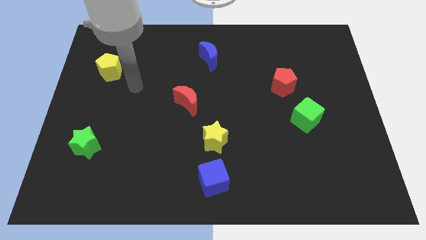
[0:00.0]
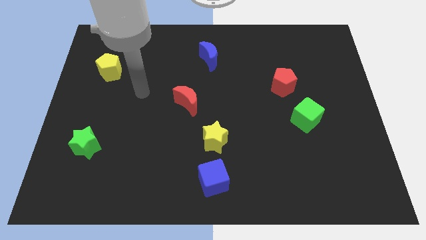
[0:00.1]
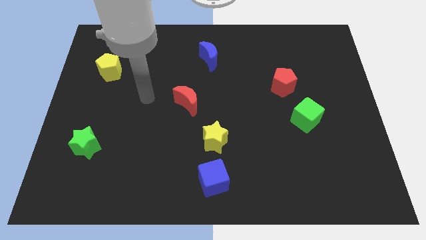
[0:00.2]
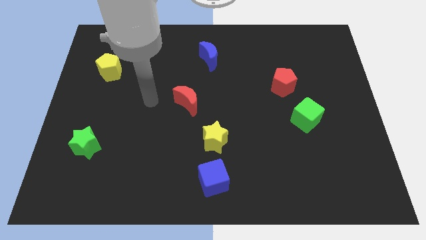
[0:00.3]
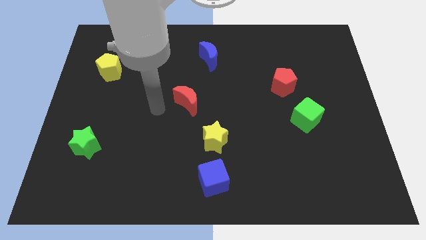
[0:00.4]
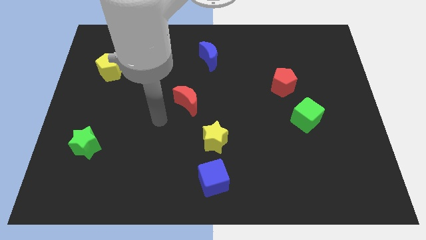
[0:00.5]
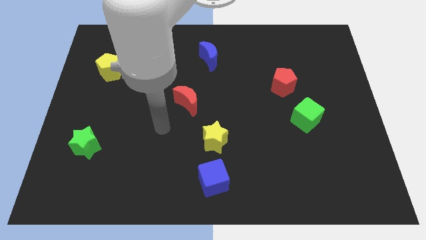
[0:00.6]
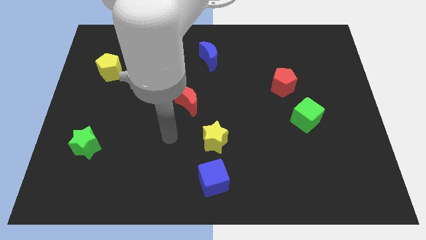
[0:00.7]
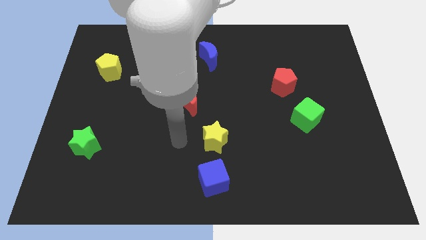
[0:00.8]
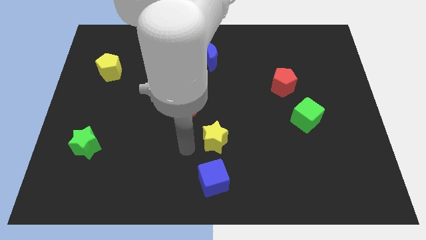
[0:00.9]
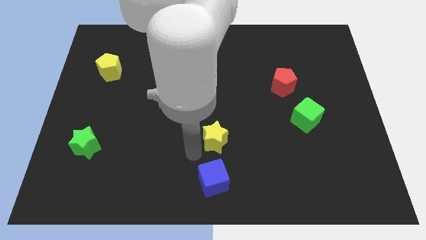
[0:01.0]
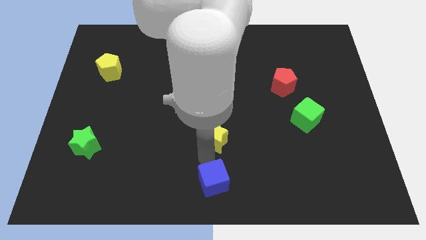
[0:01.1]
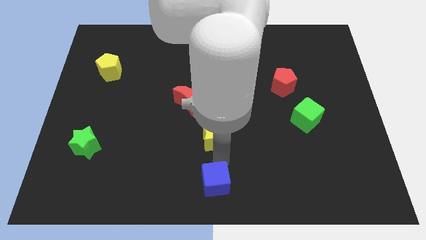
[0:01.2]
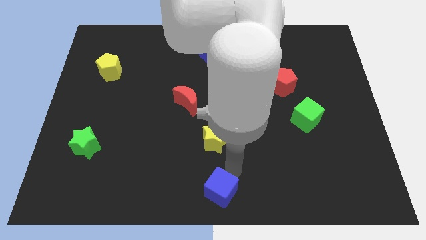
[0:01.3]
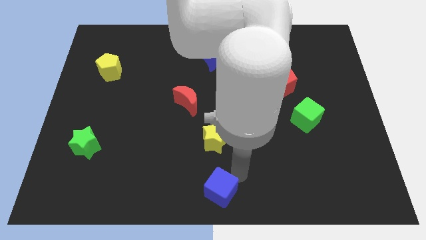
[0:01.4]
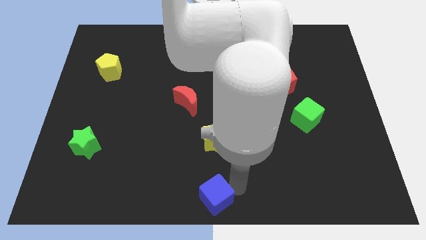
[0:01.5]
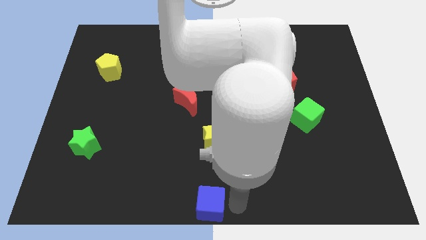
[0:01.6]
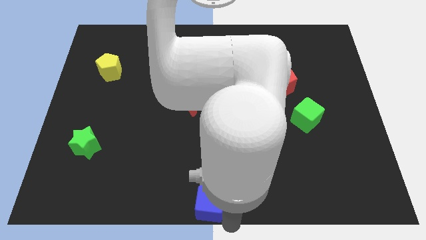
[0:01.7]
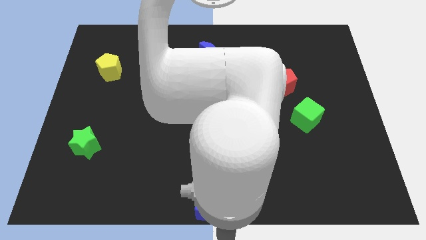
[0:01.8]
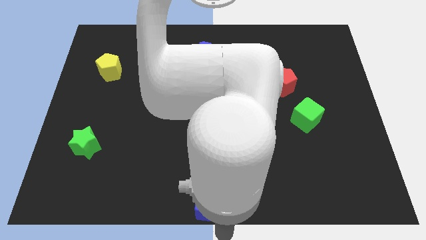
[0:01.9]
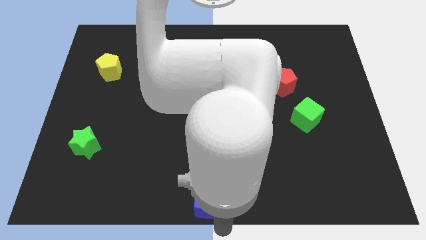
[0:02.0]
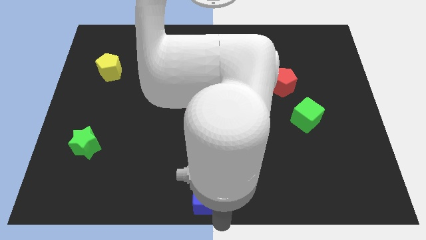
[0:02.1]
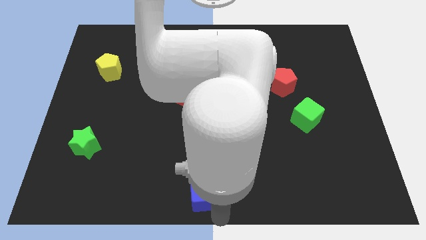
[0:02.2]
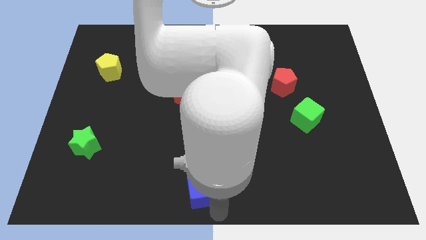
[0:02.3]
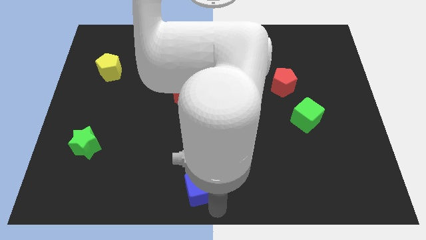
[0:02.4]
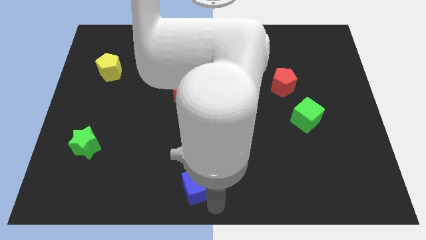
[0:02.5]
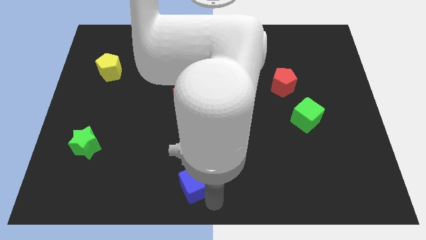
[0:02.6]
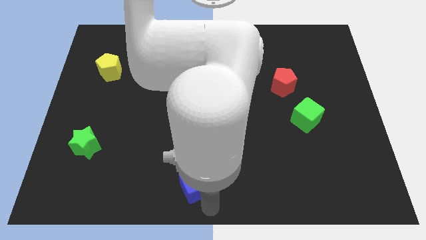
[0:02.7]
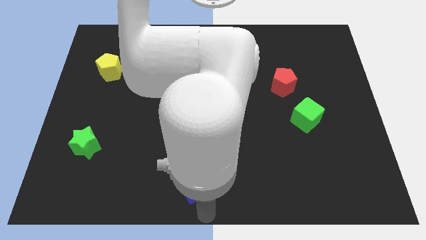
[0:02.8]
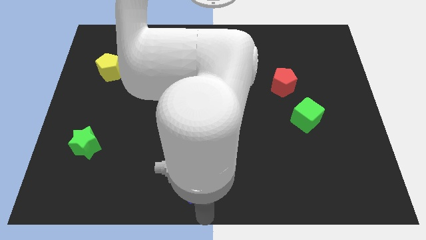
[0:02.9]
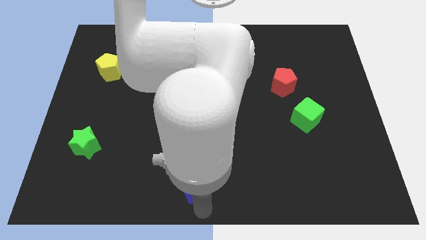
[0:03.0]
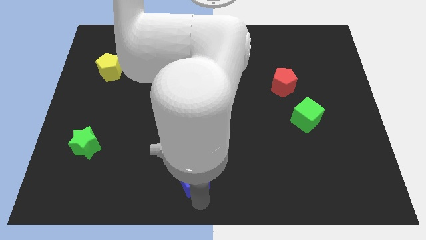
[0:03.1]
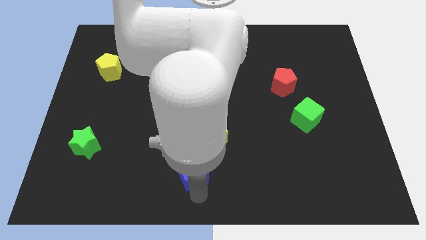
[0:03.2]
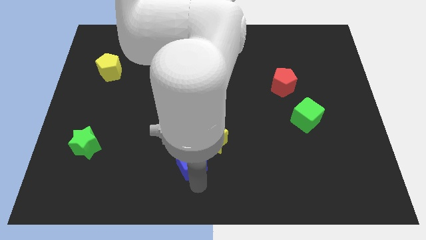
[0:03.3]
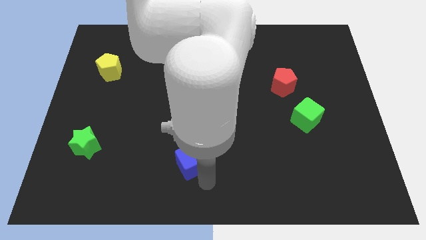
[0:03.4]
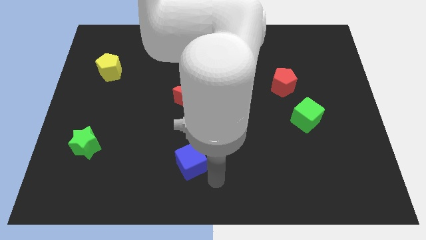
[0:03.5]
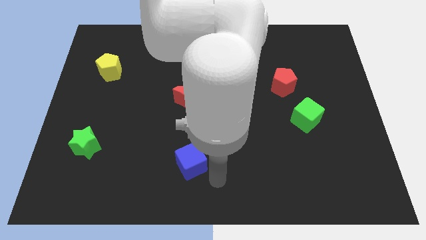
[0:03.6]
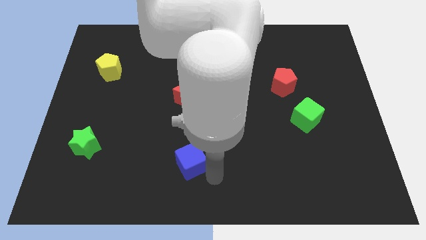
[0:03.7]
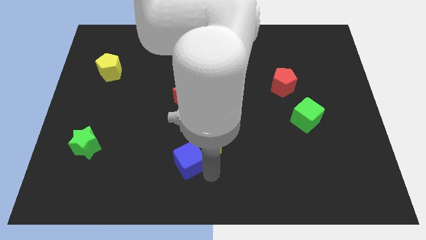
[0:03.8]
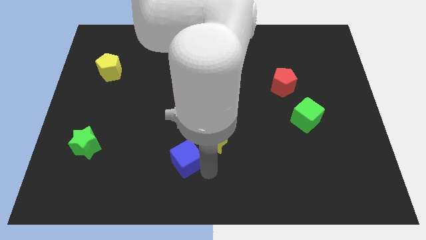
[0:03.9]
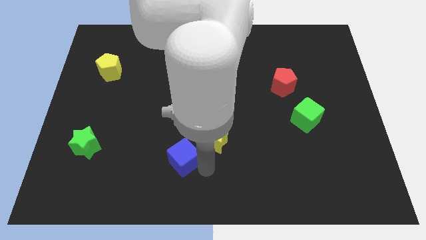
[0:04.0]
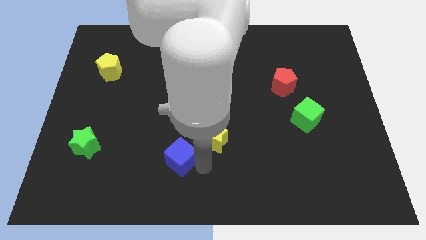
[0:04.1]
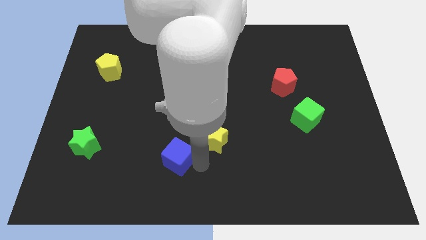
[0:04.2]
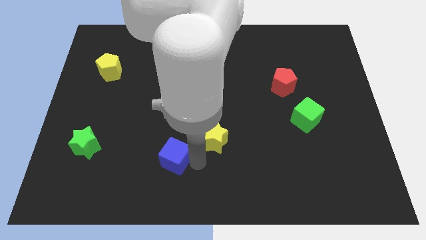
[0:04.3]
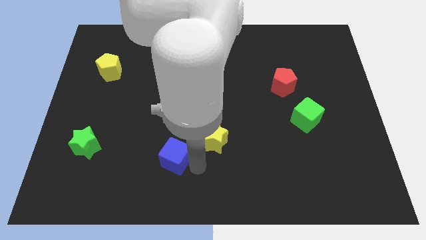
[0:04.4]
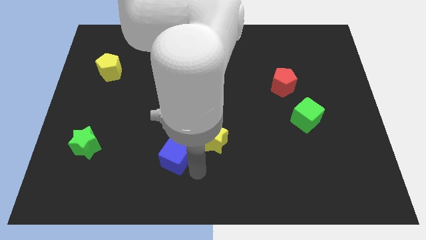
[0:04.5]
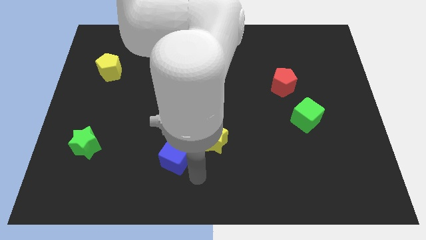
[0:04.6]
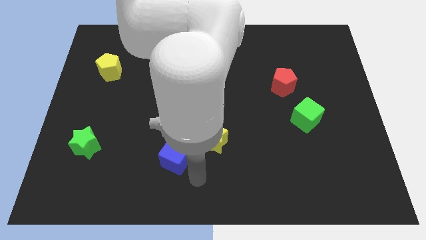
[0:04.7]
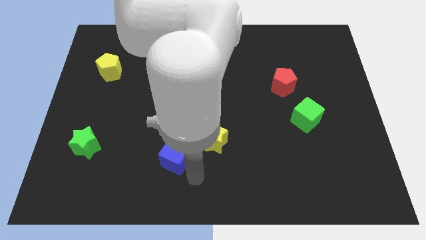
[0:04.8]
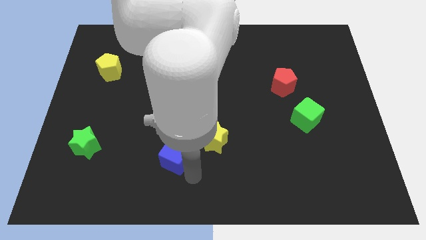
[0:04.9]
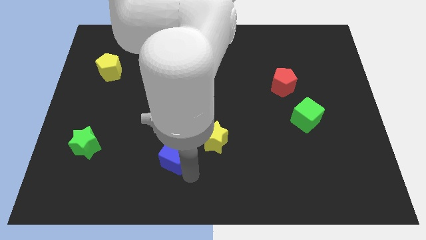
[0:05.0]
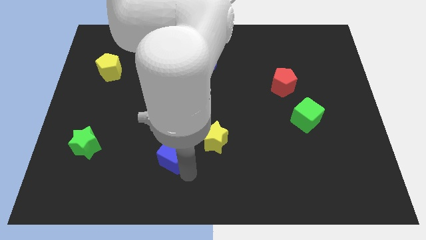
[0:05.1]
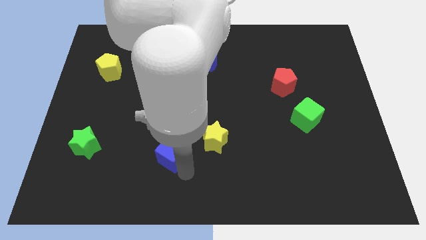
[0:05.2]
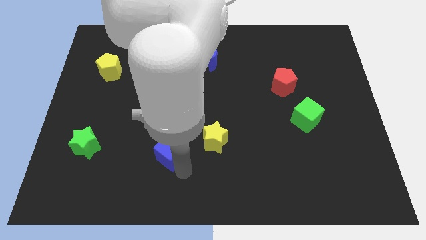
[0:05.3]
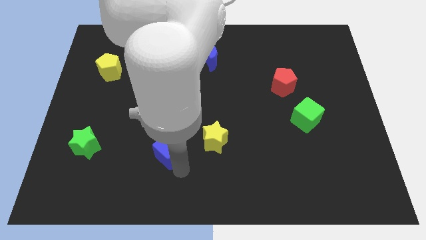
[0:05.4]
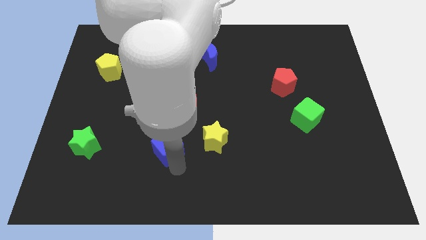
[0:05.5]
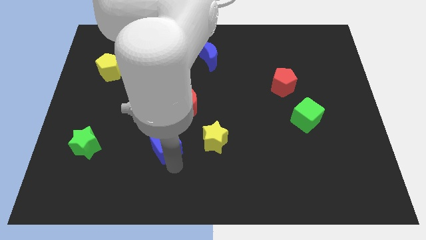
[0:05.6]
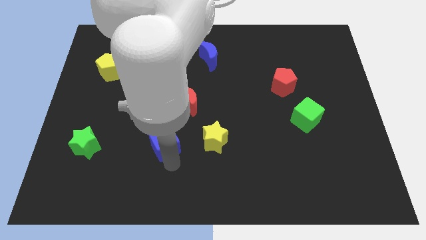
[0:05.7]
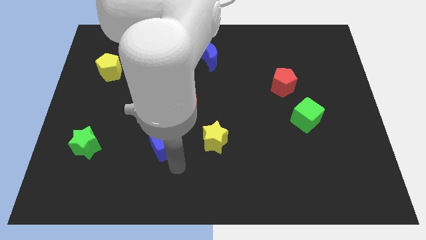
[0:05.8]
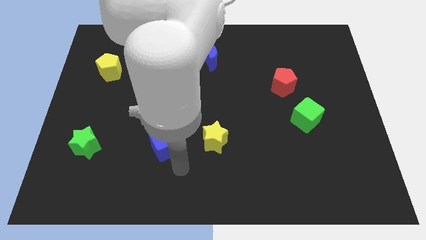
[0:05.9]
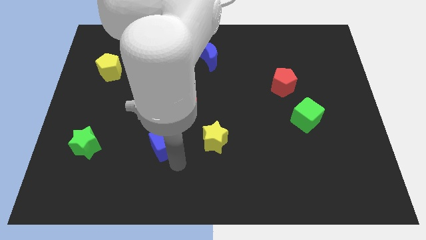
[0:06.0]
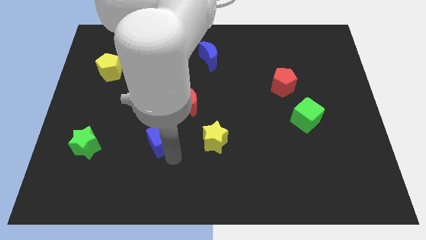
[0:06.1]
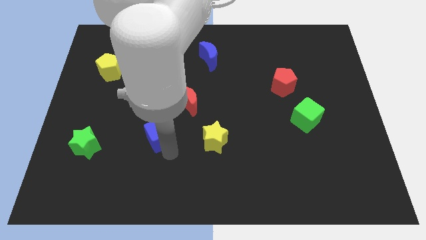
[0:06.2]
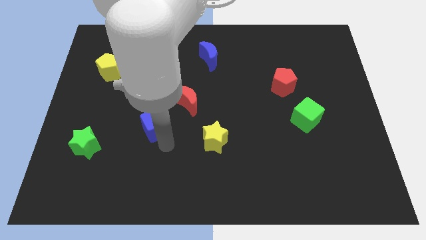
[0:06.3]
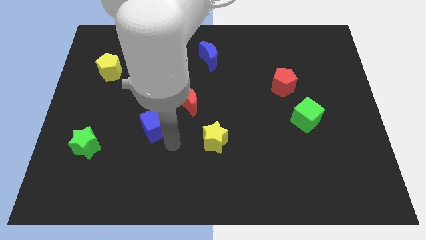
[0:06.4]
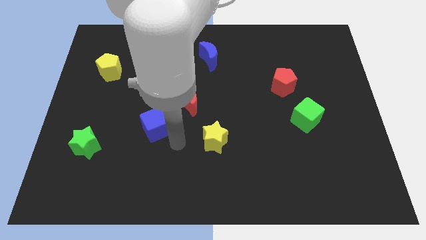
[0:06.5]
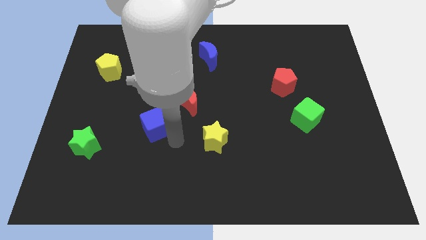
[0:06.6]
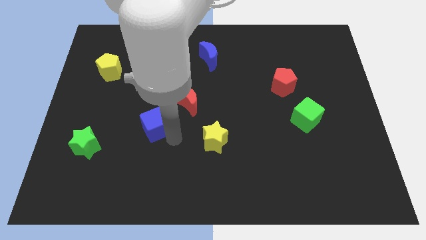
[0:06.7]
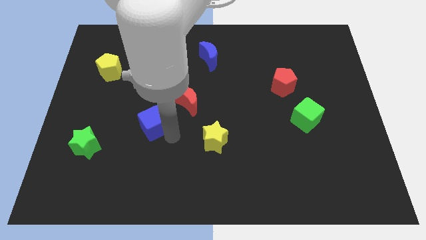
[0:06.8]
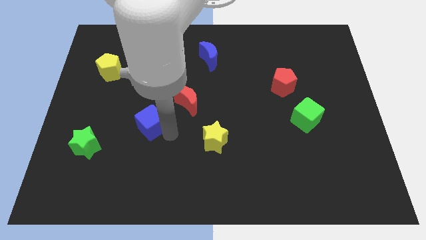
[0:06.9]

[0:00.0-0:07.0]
move the blue cube up and to the left diagonally

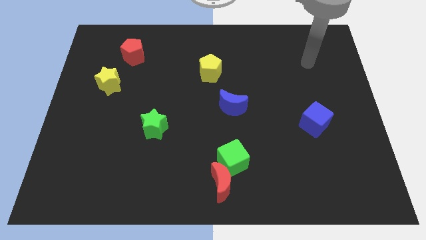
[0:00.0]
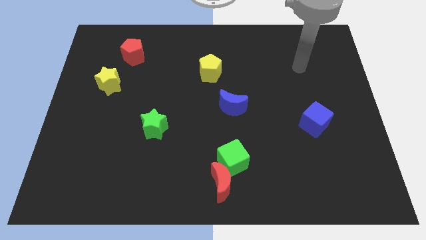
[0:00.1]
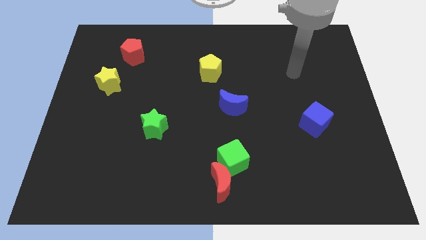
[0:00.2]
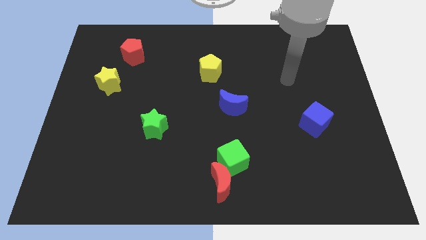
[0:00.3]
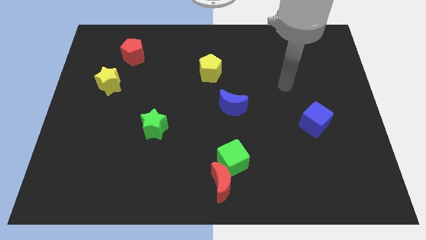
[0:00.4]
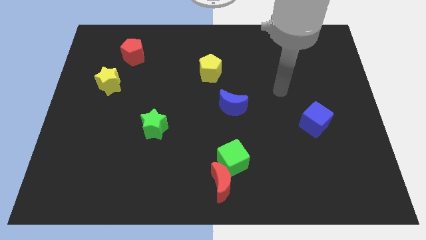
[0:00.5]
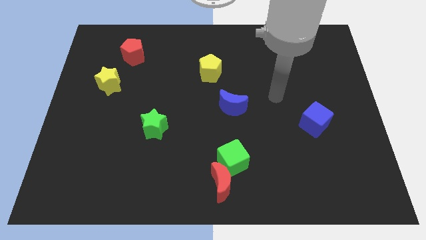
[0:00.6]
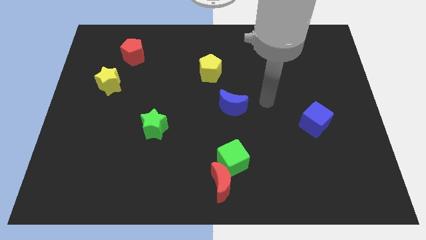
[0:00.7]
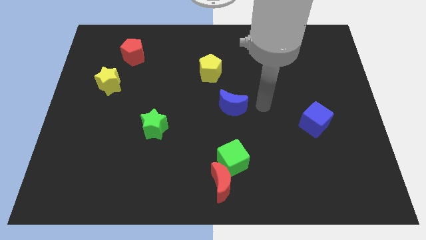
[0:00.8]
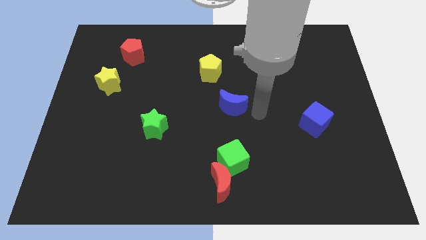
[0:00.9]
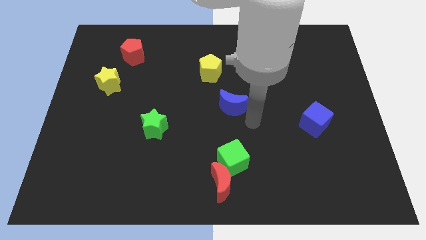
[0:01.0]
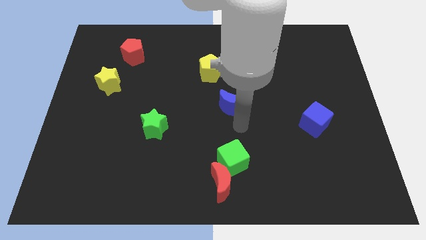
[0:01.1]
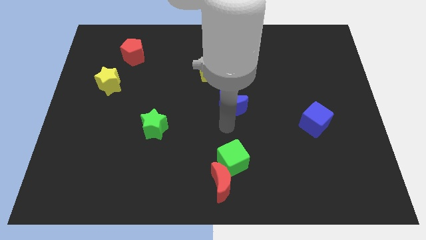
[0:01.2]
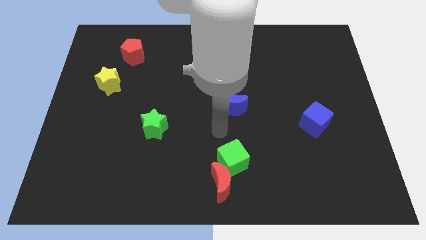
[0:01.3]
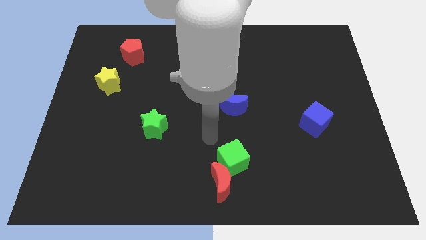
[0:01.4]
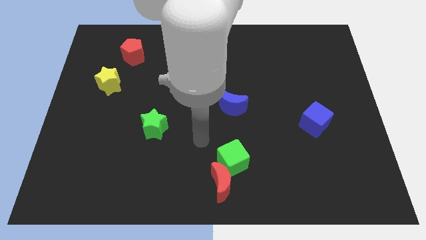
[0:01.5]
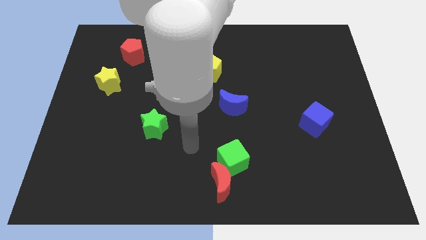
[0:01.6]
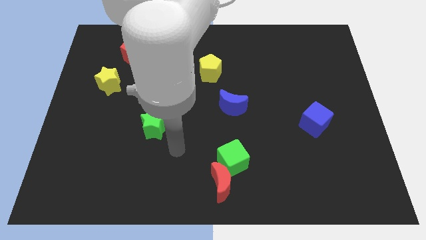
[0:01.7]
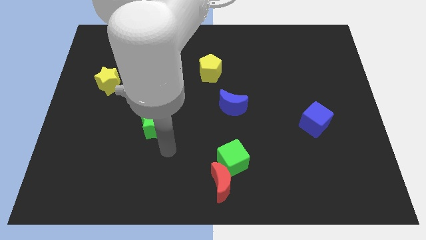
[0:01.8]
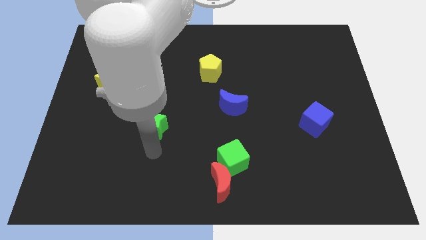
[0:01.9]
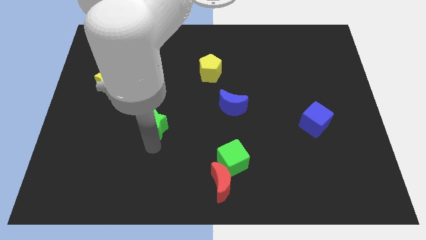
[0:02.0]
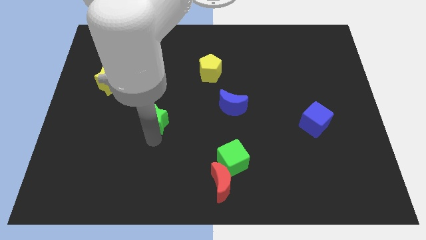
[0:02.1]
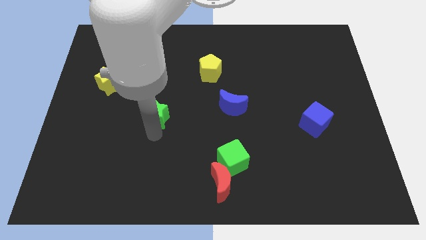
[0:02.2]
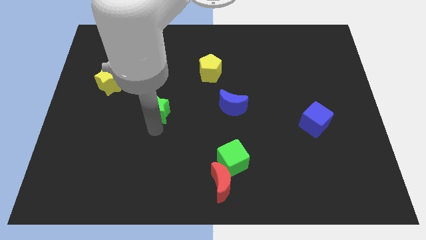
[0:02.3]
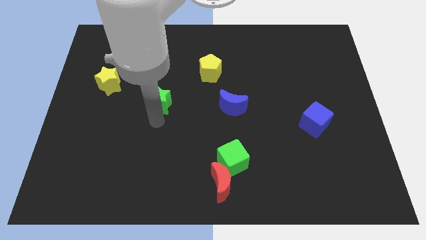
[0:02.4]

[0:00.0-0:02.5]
move the green star a little bit upwards
